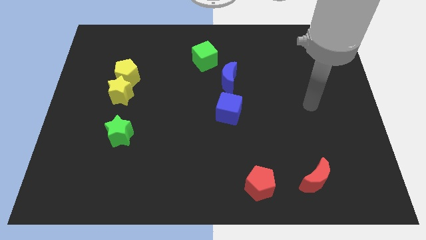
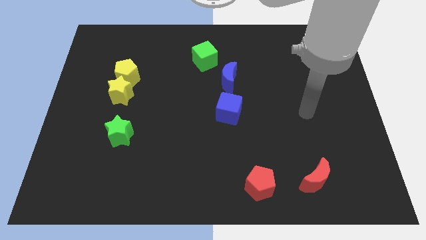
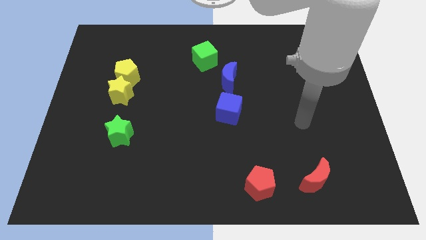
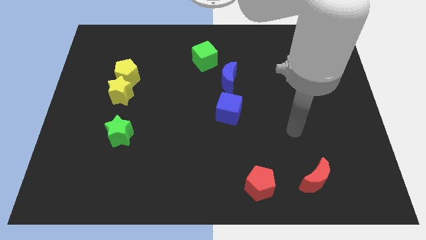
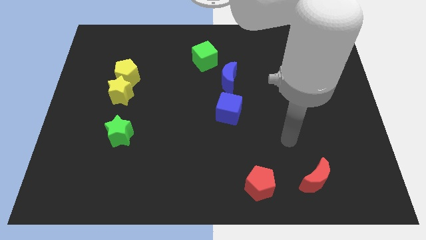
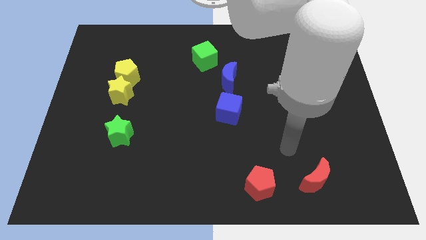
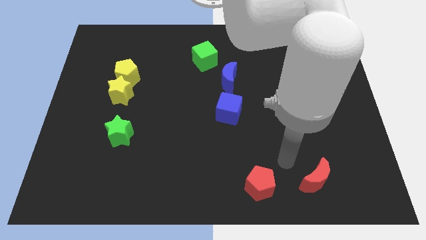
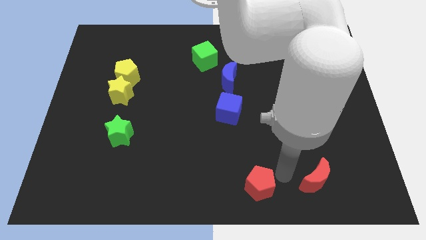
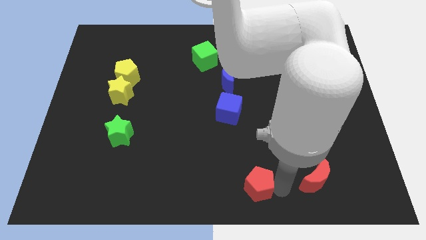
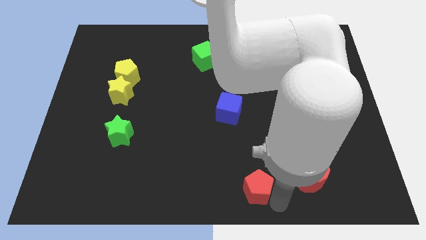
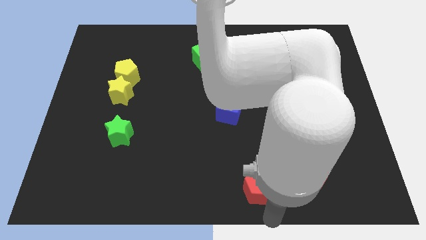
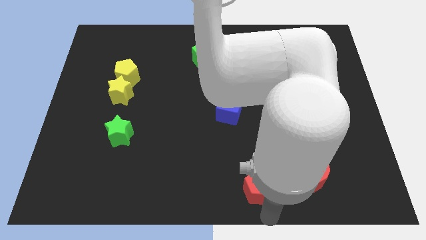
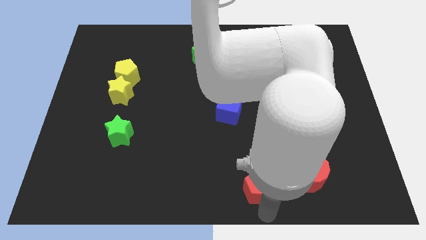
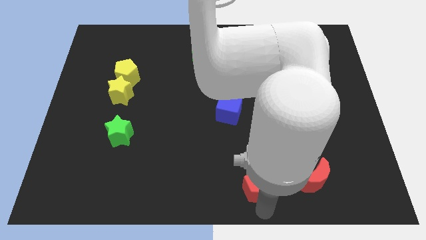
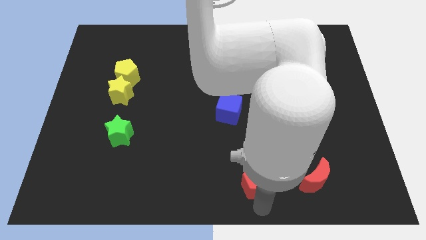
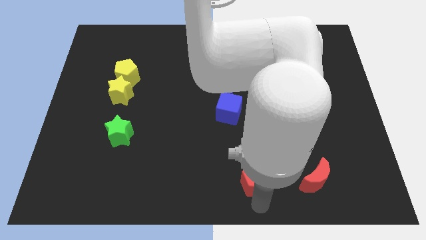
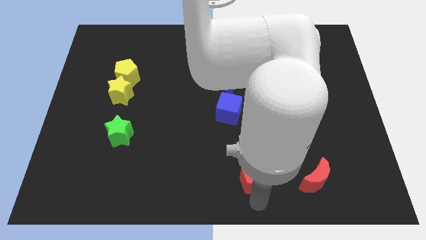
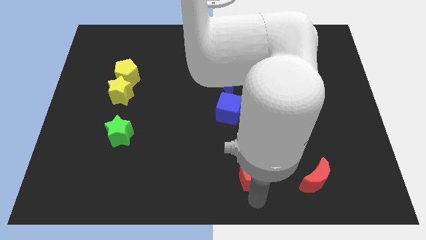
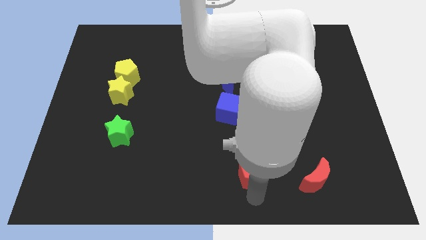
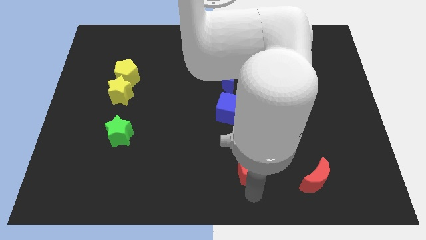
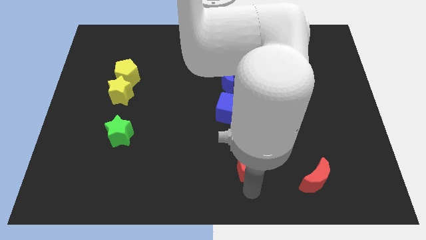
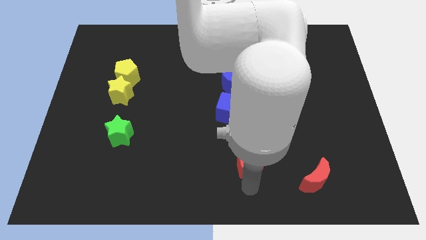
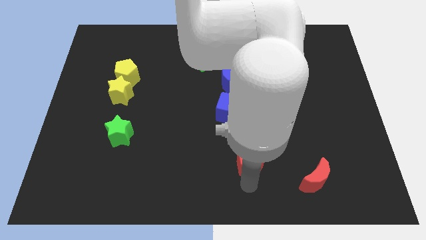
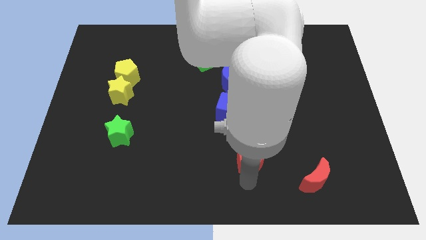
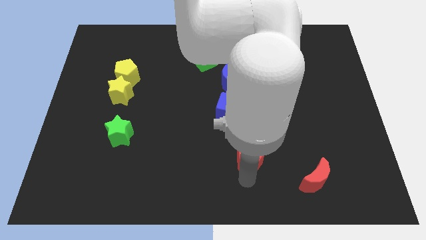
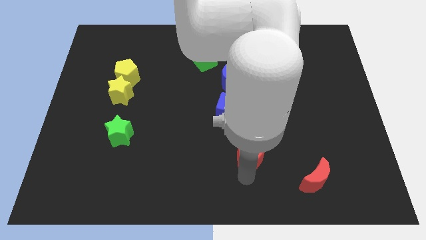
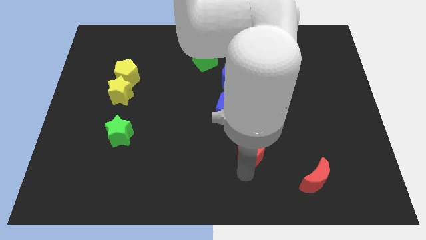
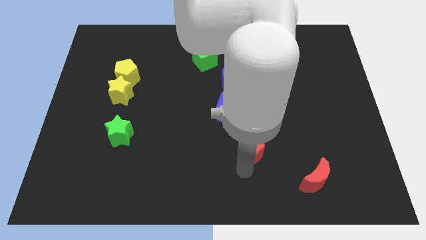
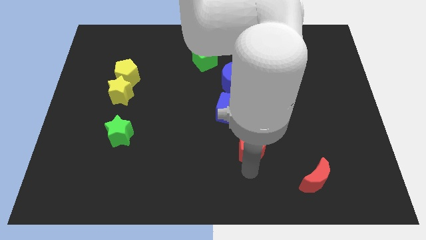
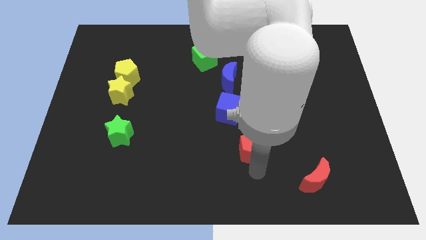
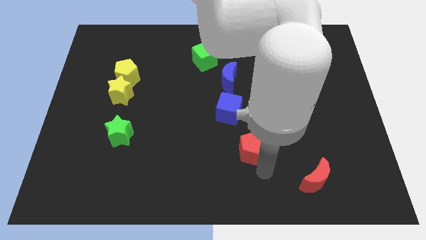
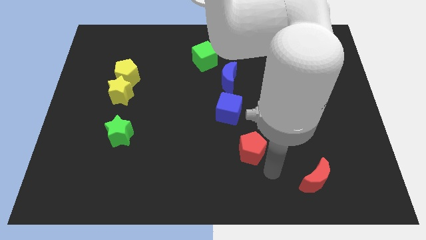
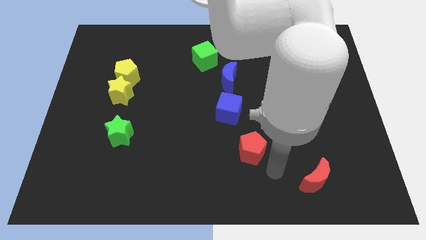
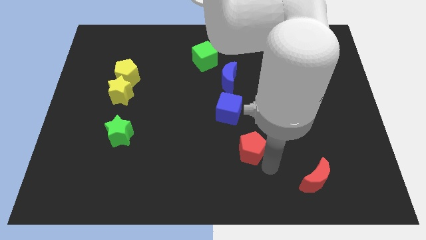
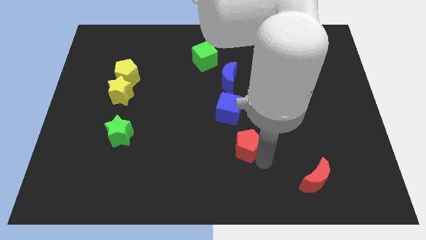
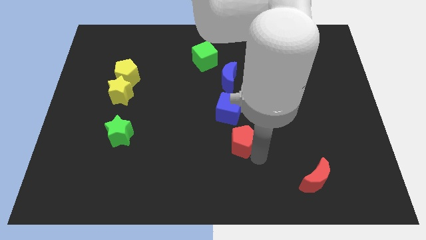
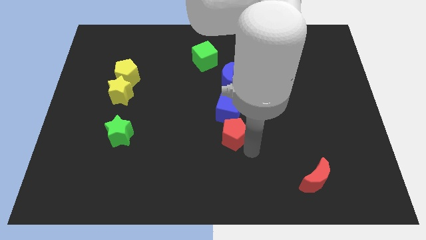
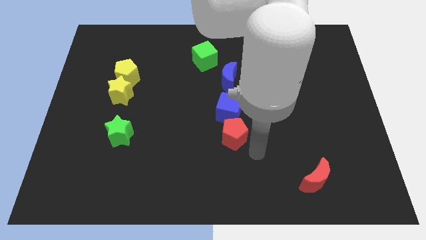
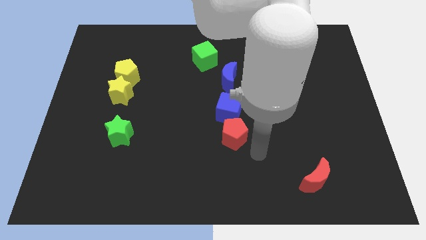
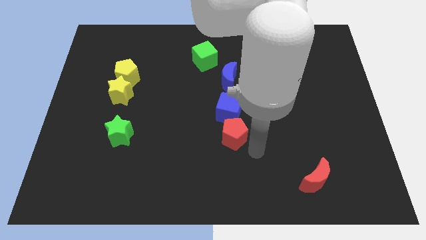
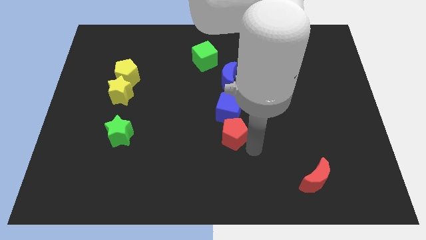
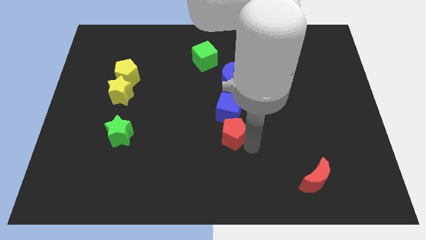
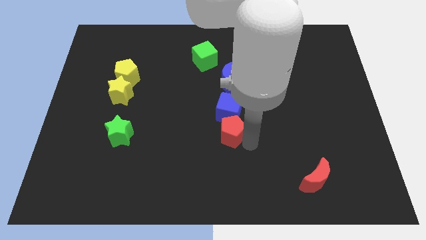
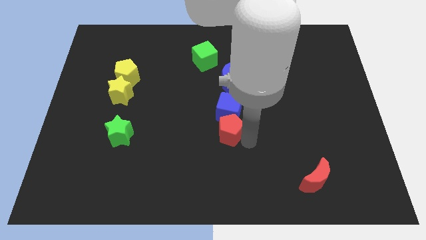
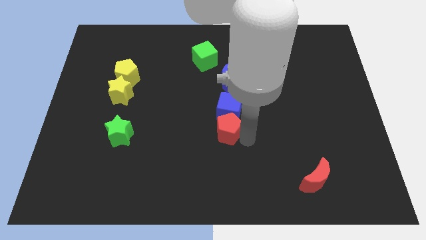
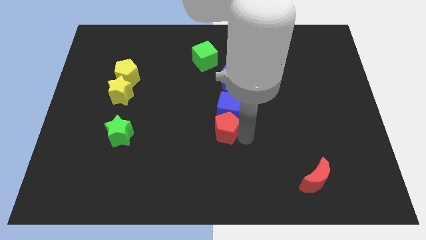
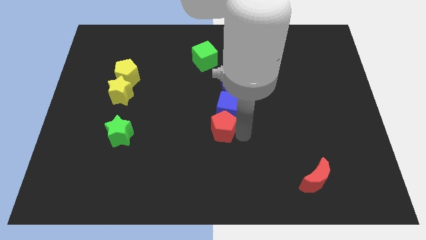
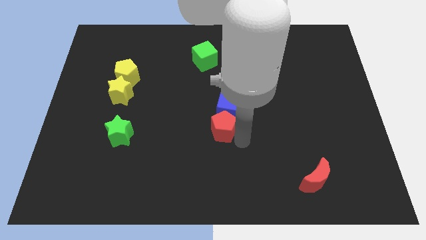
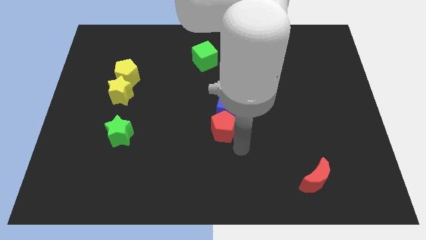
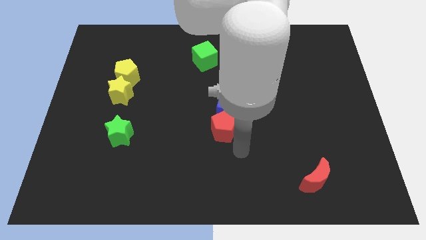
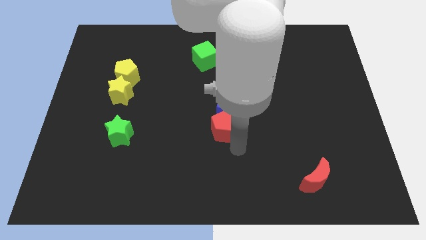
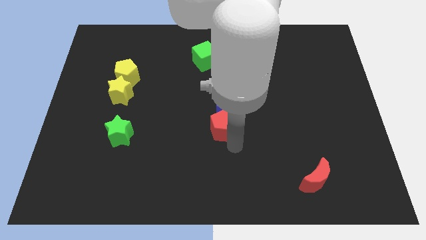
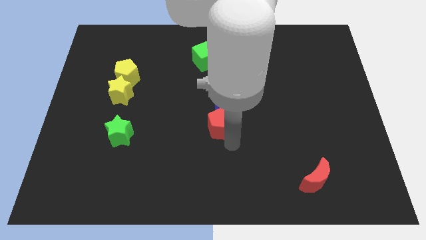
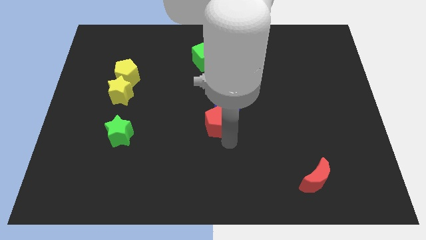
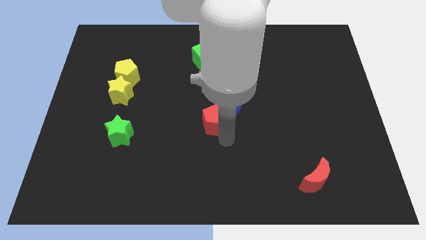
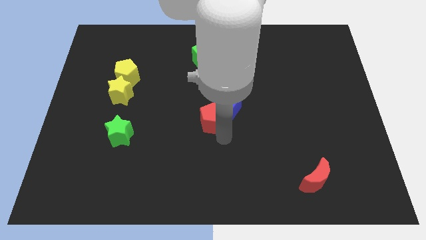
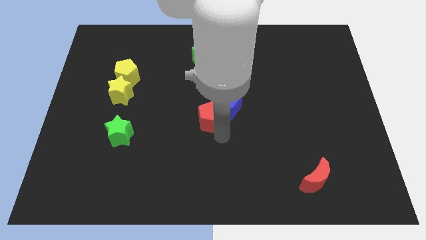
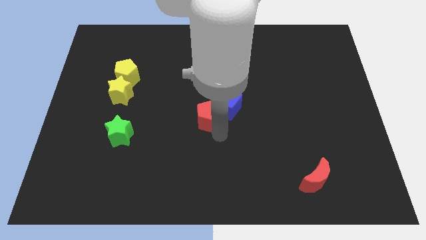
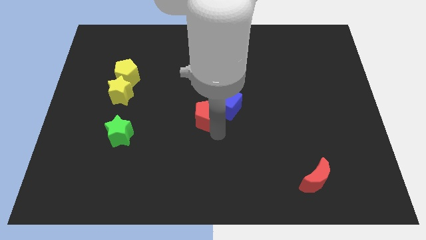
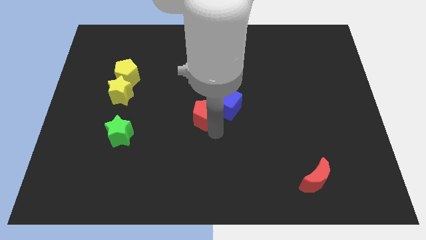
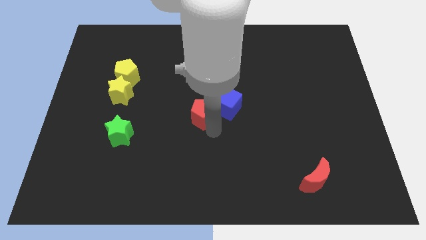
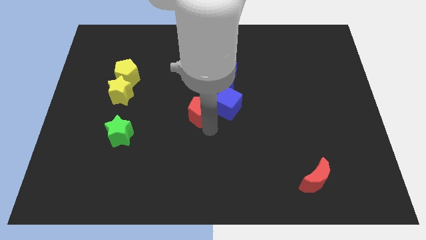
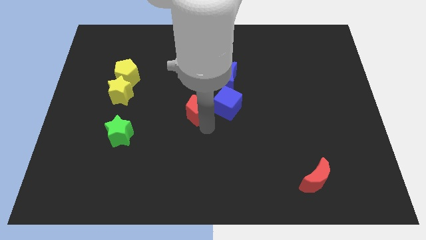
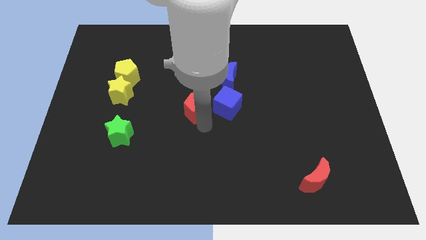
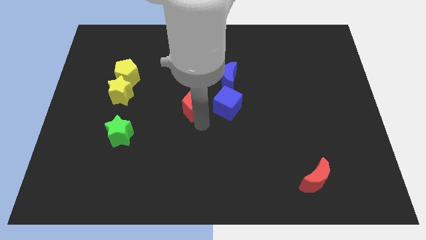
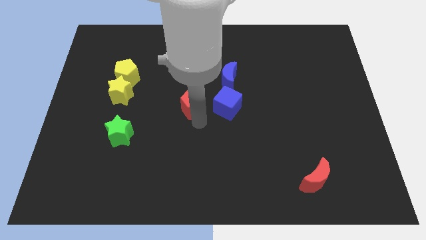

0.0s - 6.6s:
push the red pentagon to the bottom side of the green cube

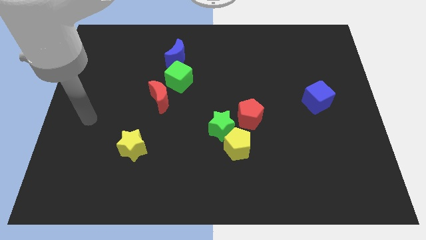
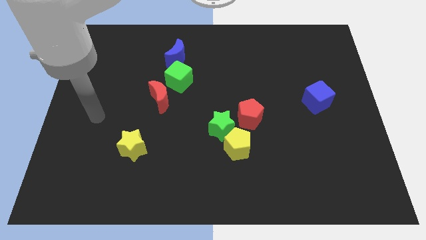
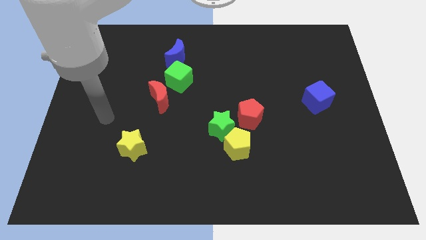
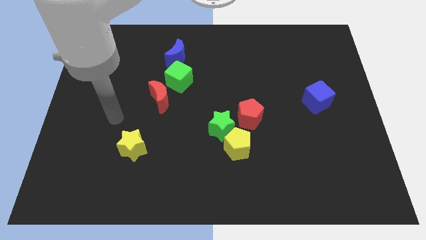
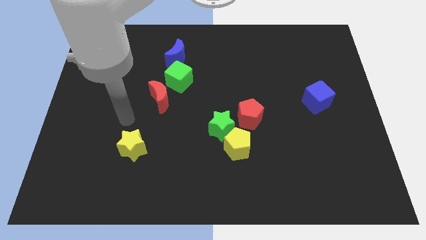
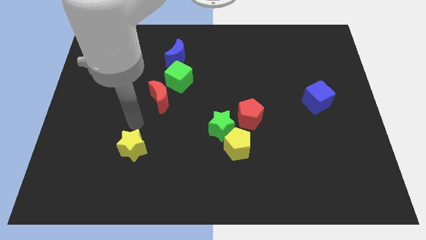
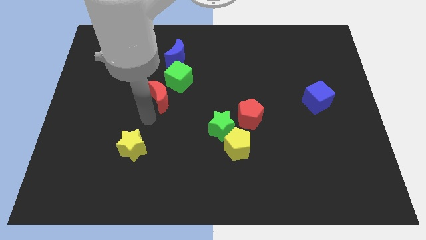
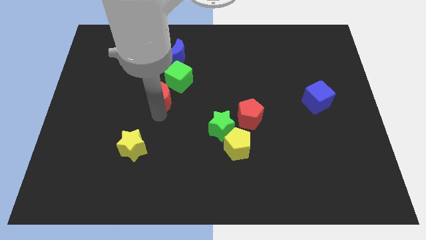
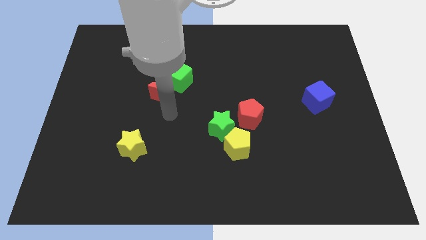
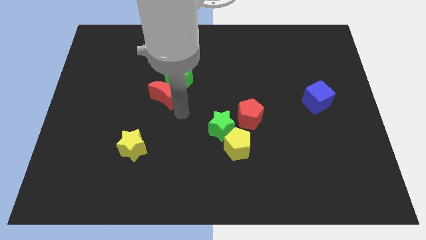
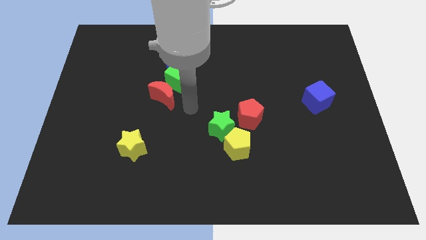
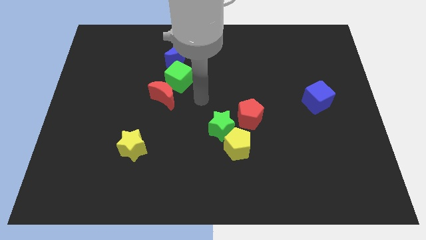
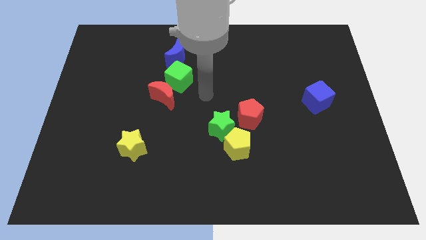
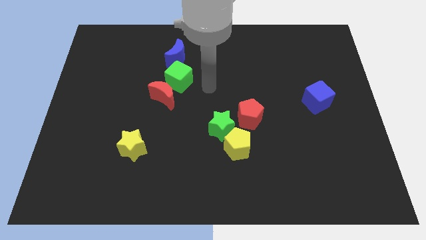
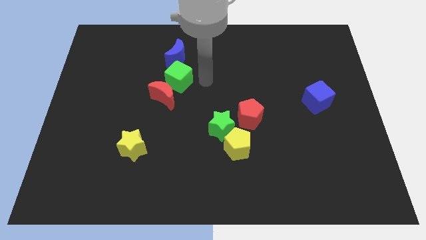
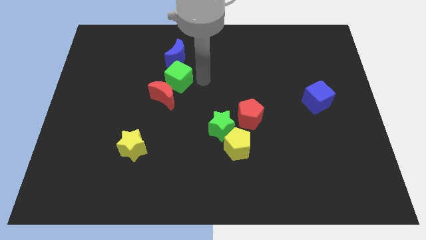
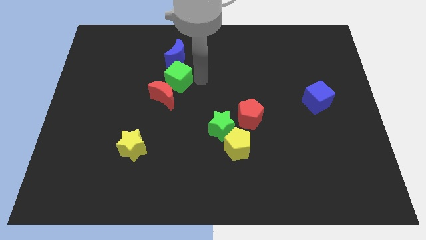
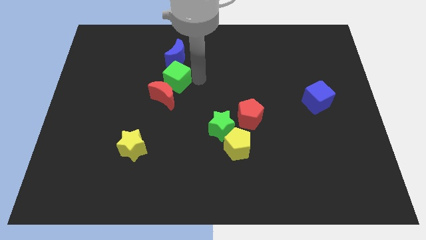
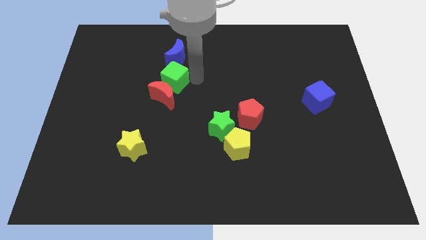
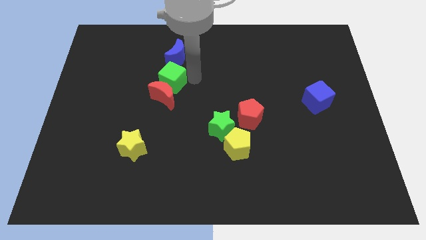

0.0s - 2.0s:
put the green cube to the top left of the red moon
